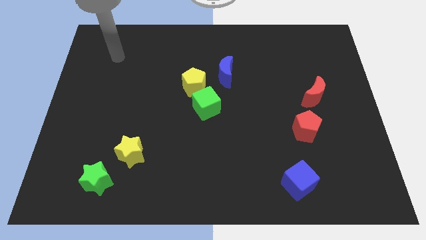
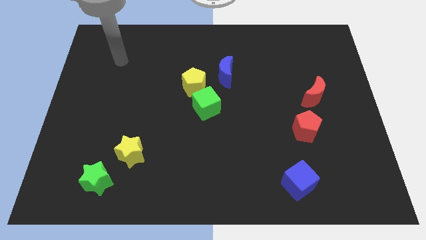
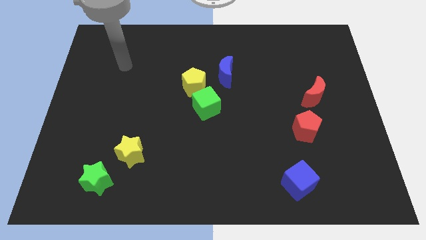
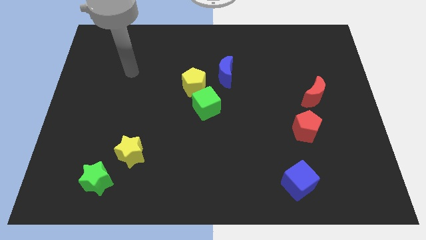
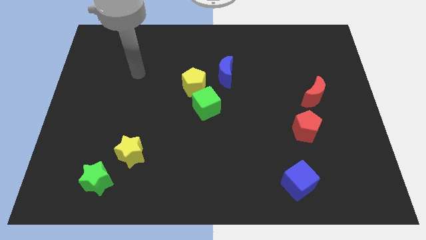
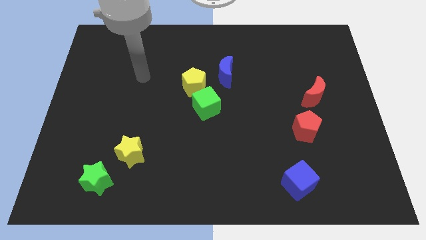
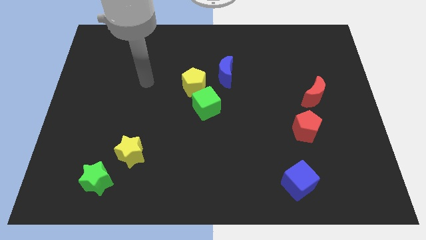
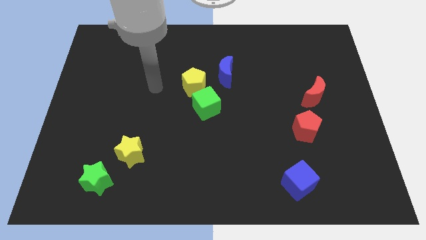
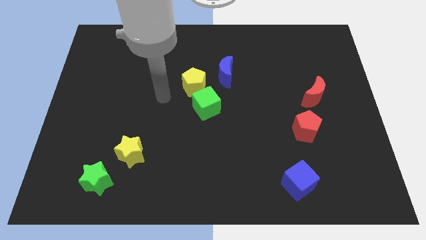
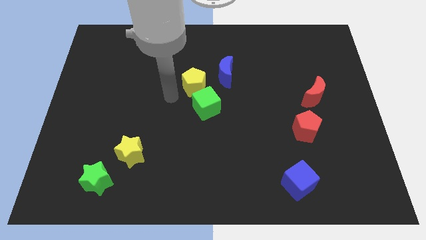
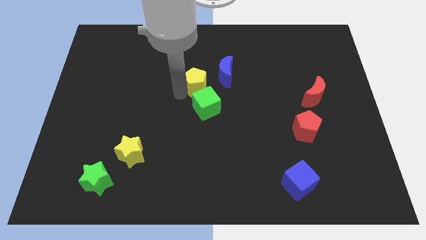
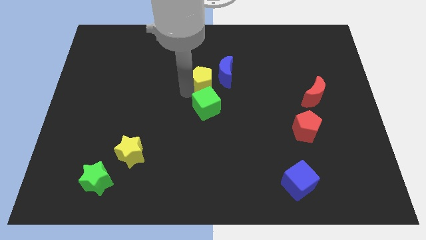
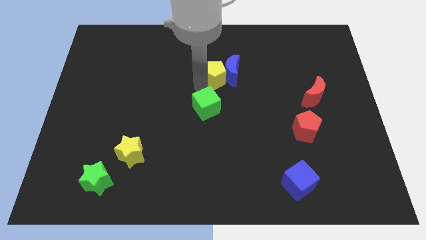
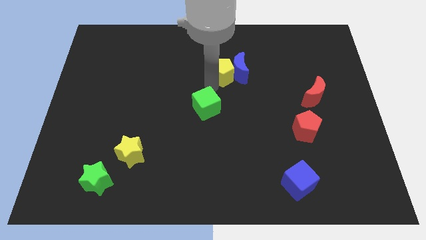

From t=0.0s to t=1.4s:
move the green cube away from the yellow pentagon

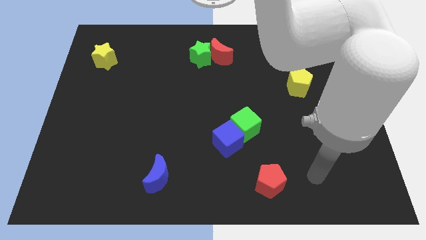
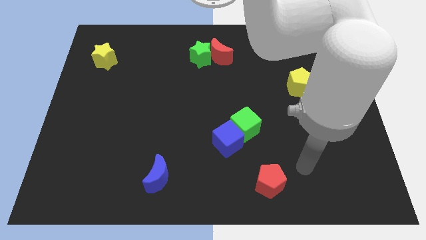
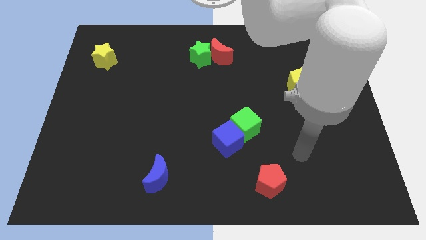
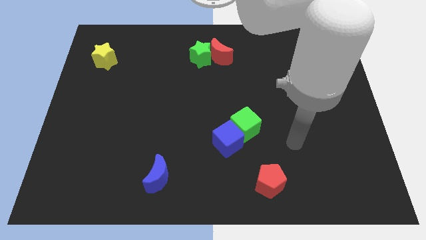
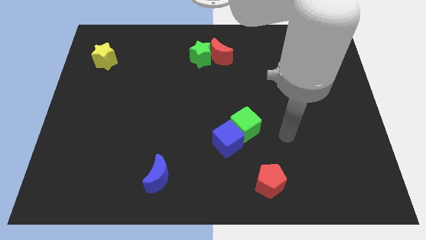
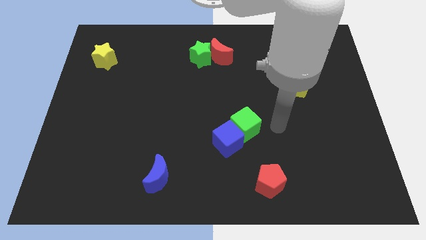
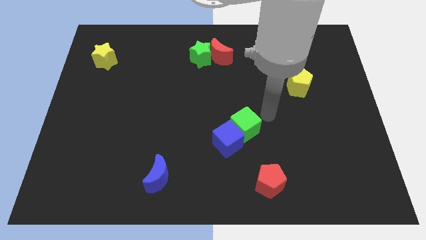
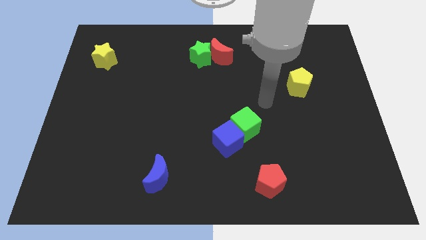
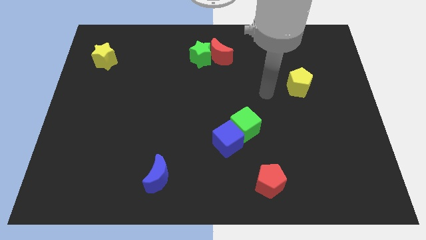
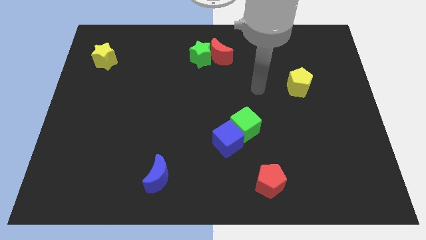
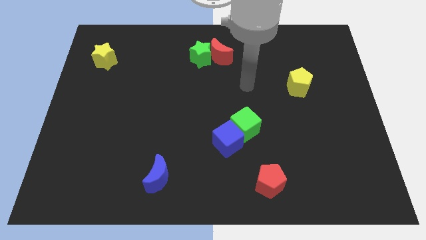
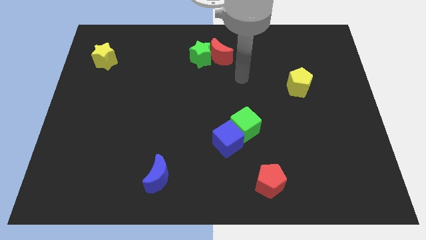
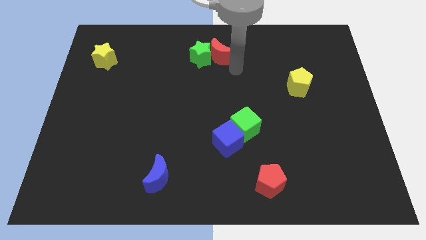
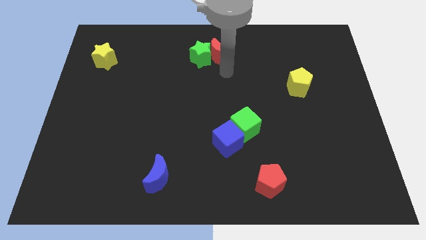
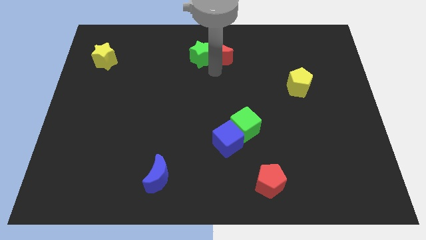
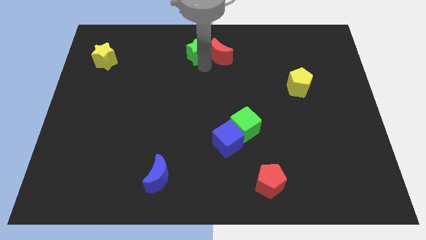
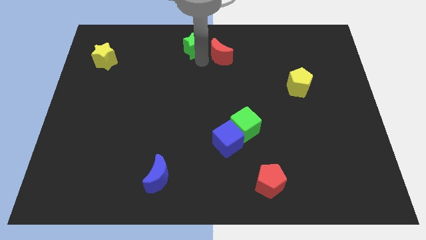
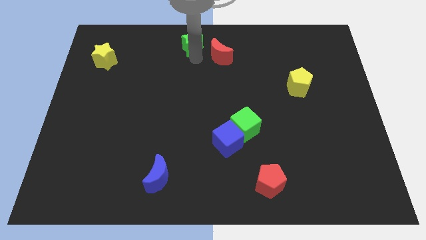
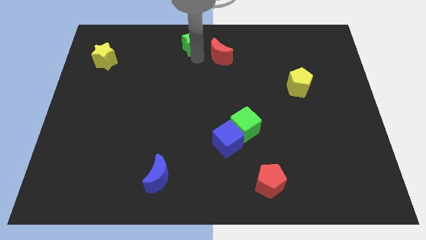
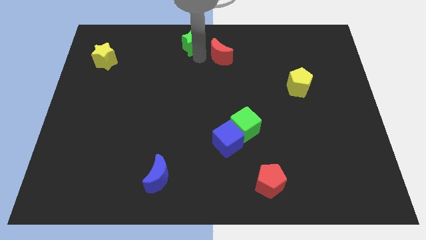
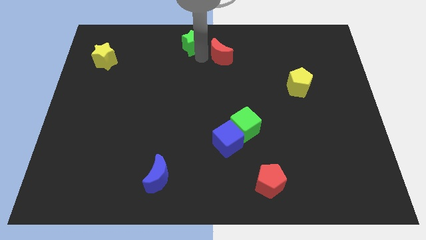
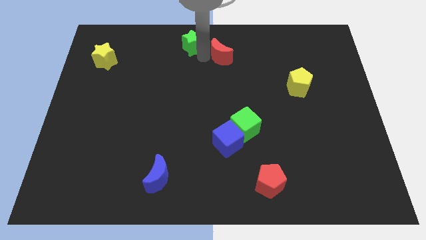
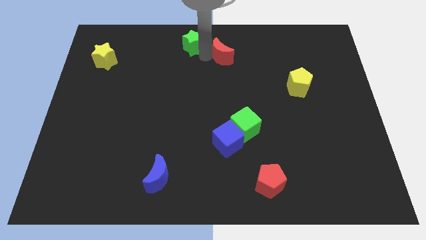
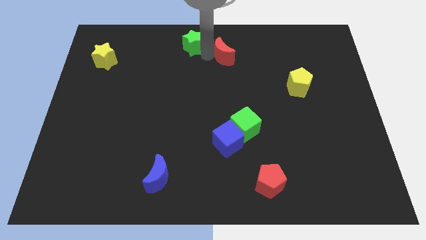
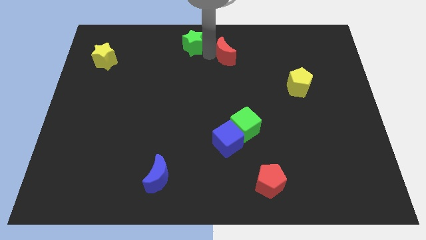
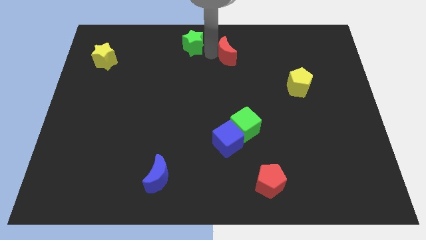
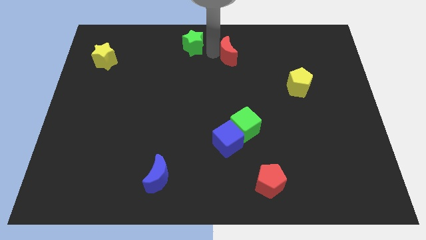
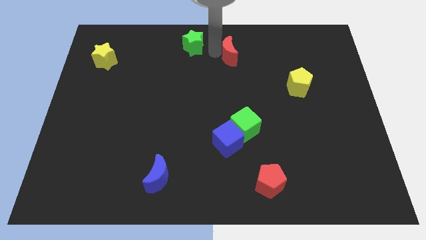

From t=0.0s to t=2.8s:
pull the red moon apart from the green star

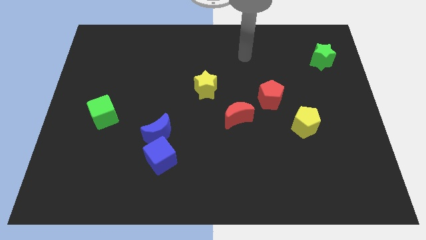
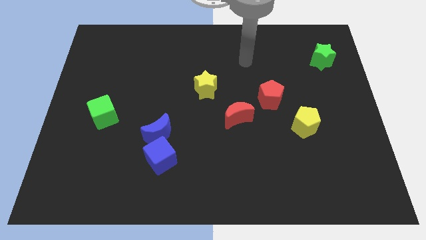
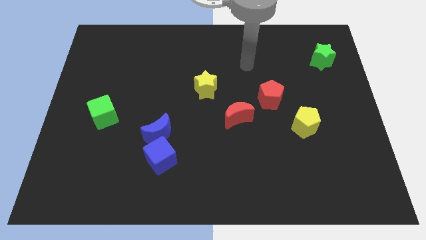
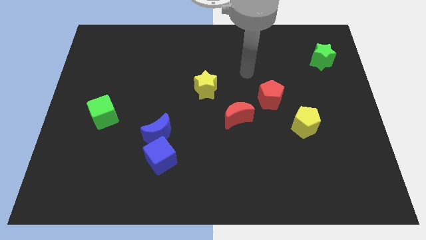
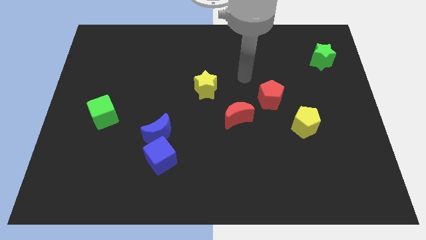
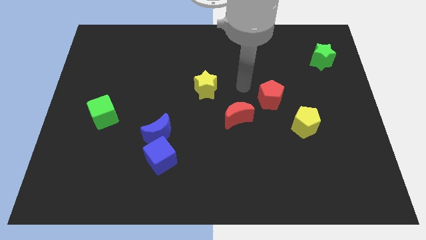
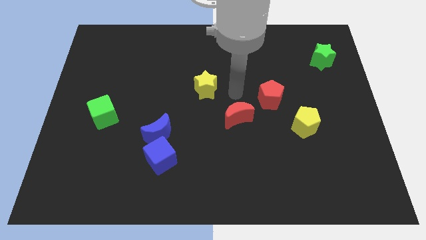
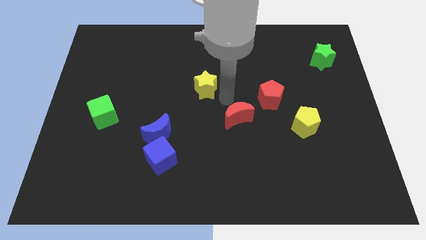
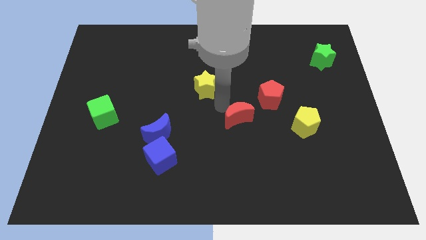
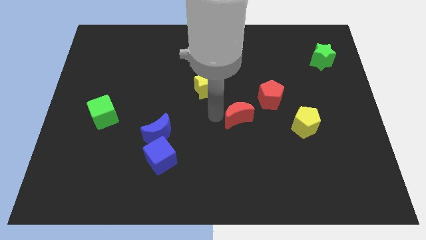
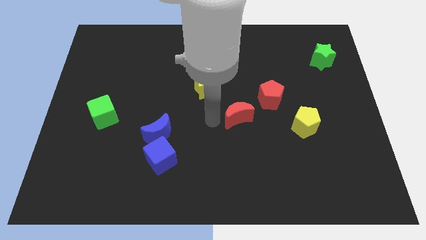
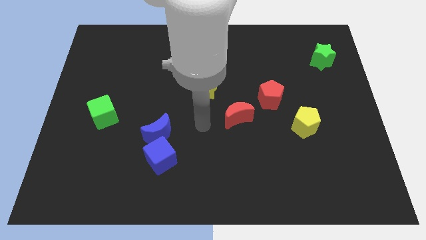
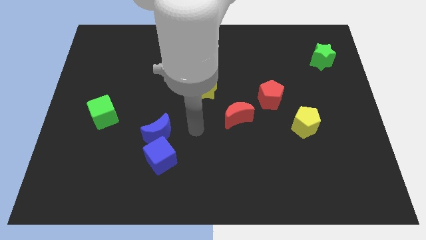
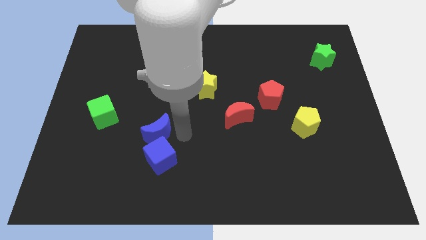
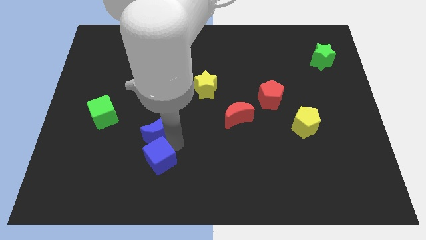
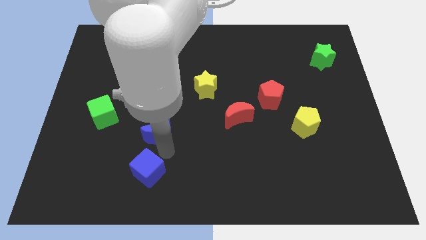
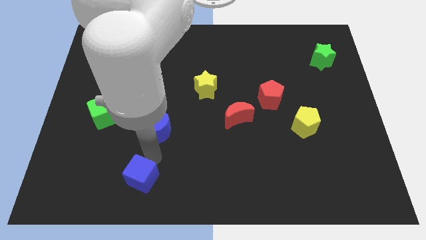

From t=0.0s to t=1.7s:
pull the blue moon apart from the blue cube

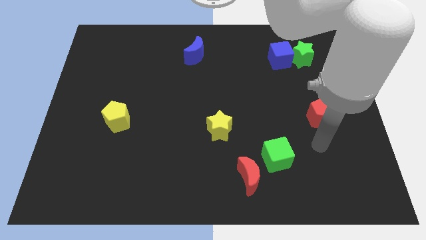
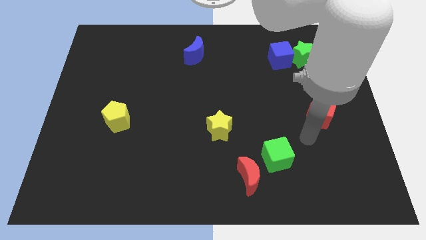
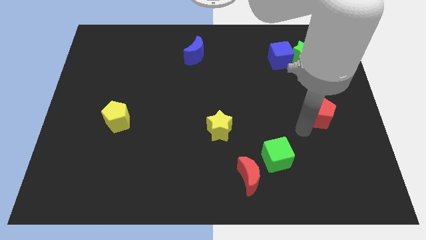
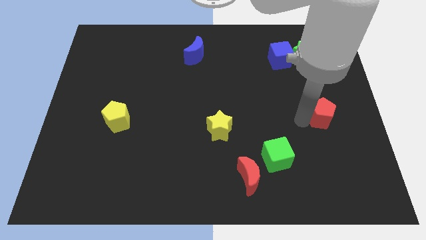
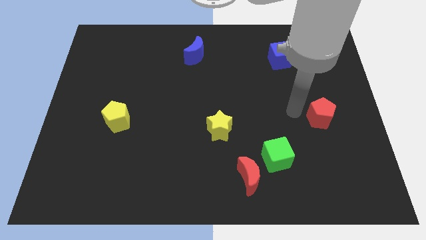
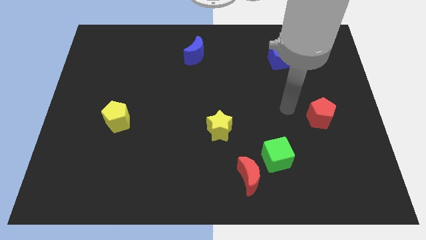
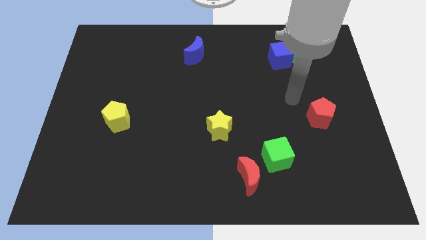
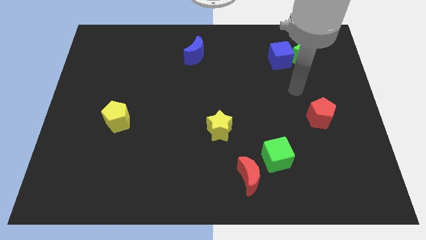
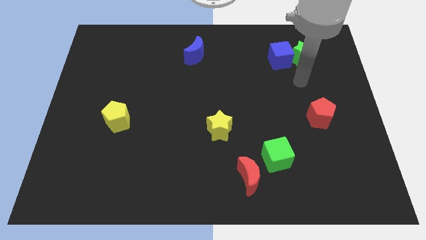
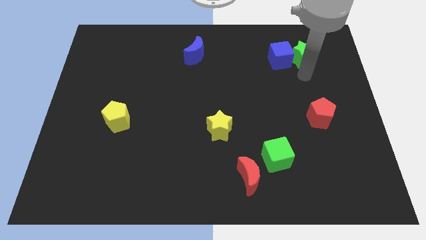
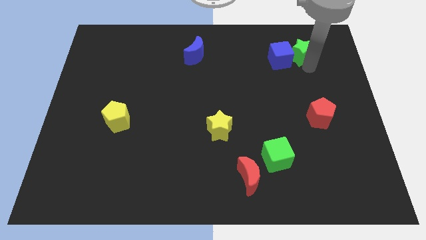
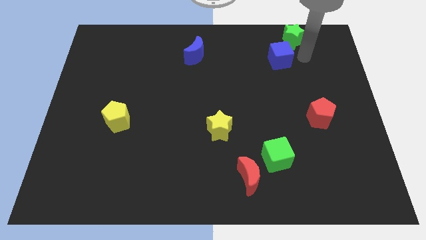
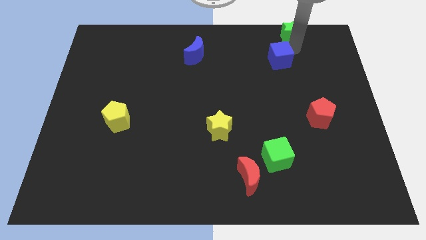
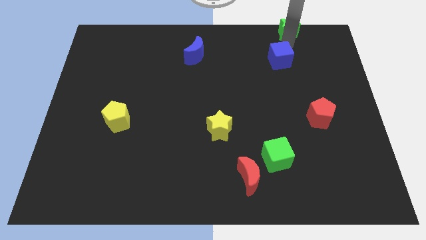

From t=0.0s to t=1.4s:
separate the blue cube from the green star

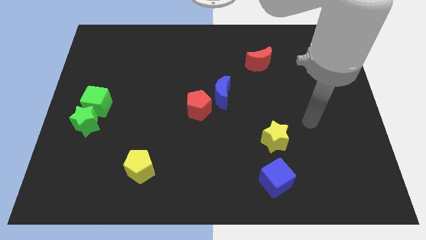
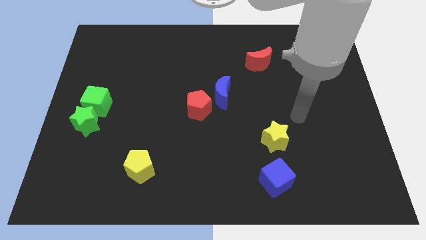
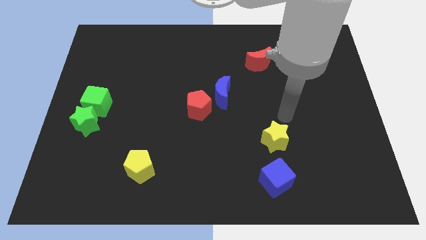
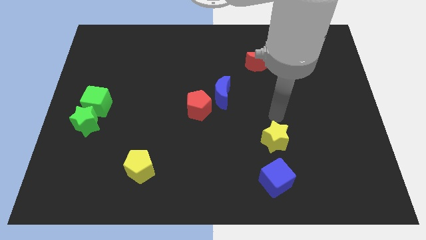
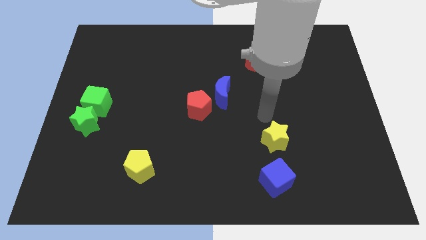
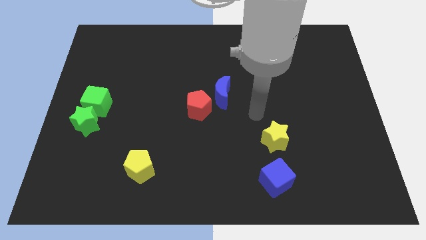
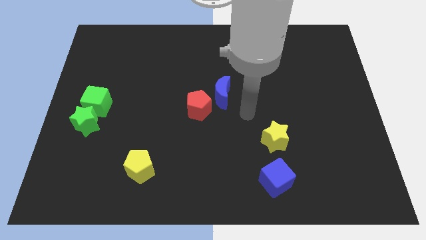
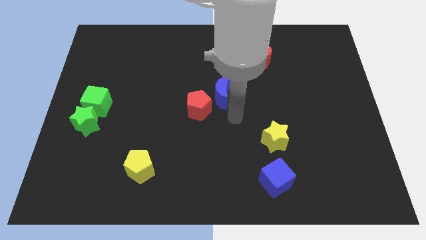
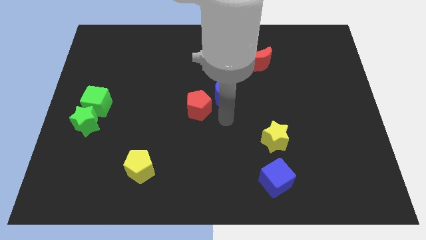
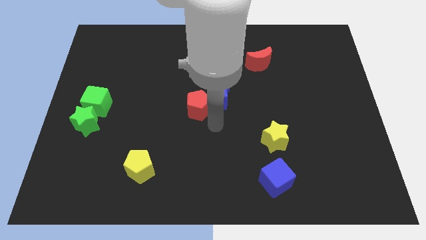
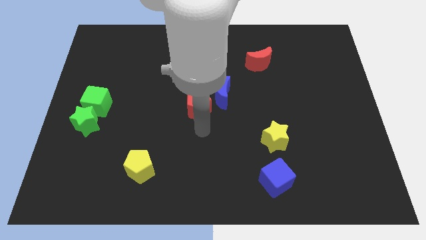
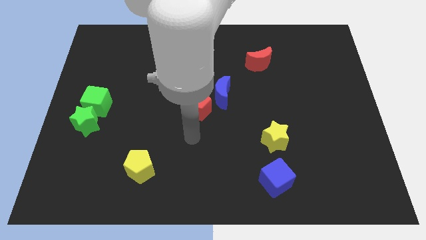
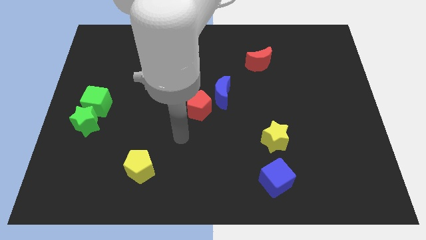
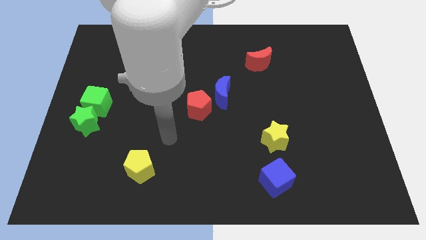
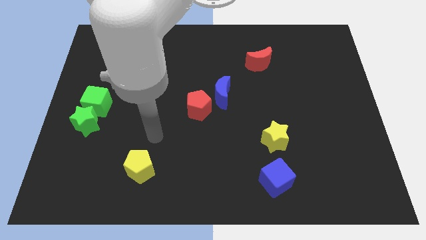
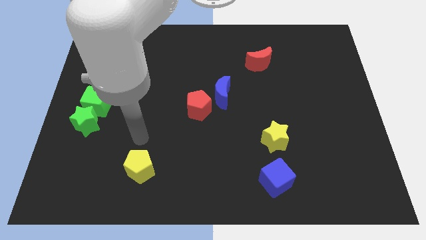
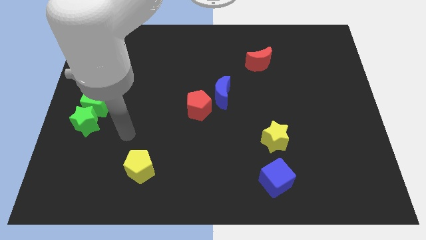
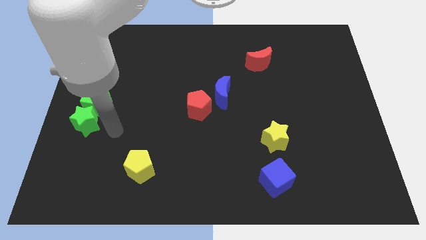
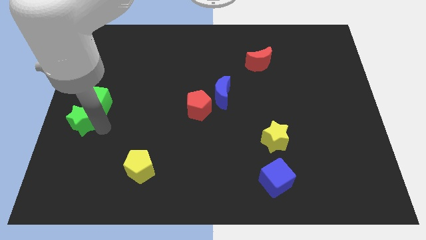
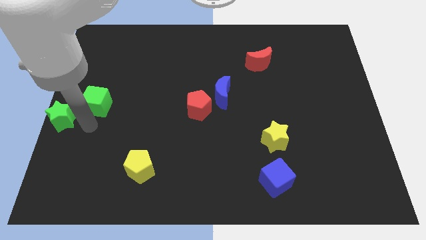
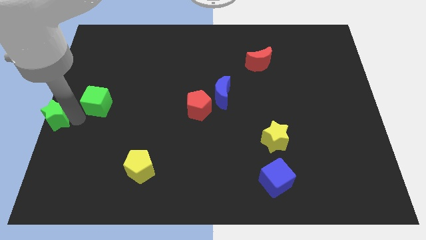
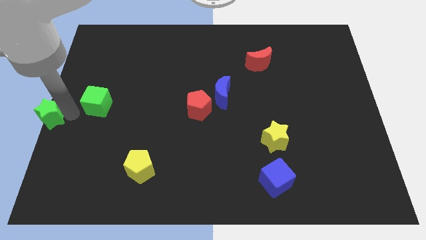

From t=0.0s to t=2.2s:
separate the green cube from the green star
